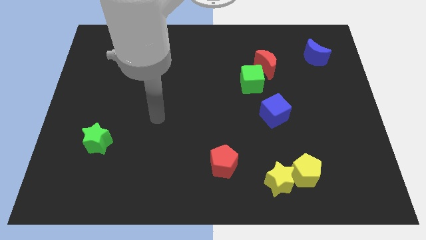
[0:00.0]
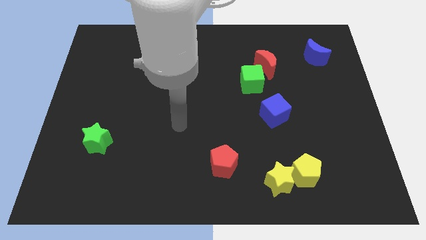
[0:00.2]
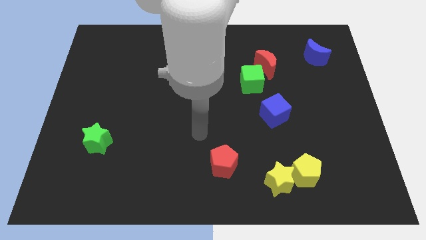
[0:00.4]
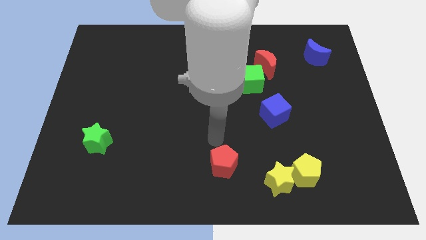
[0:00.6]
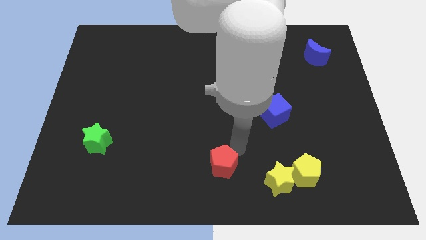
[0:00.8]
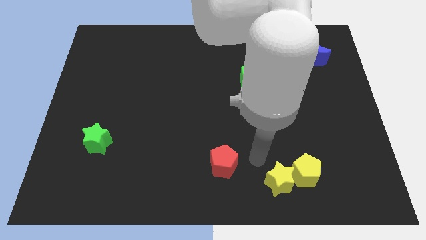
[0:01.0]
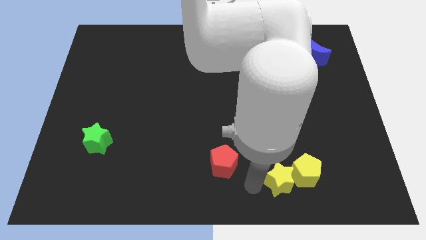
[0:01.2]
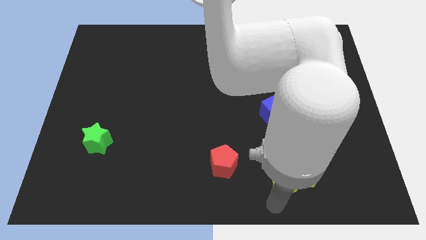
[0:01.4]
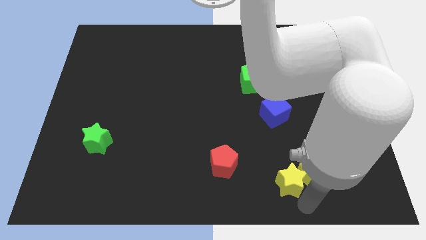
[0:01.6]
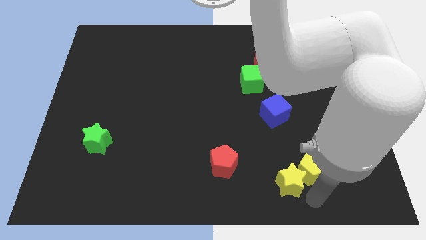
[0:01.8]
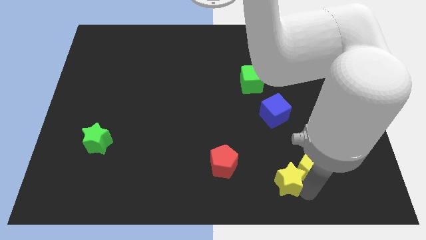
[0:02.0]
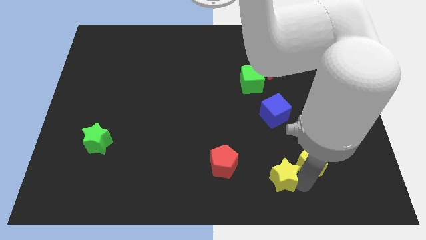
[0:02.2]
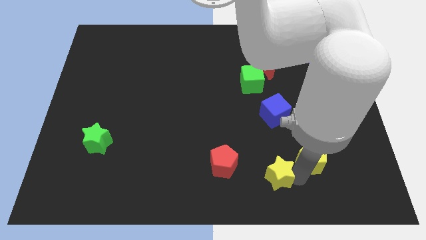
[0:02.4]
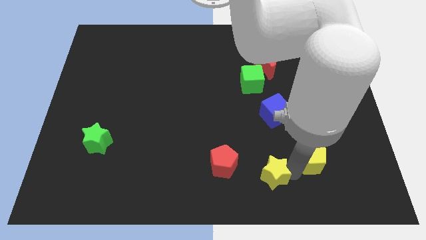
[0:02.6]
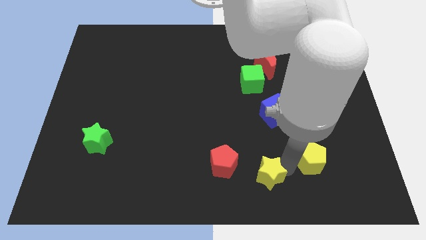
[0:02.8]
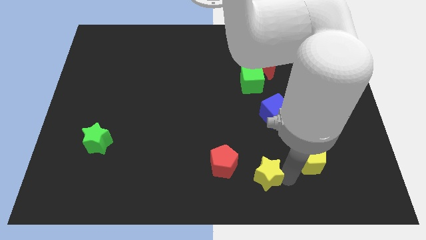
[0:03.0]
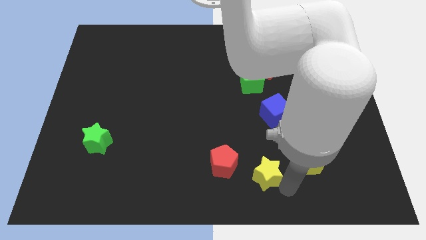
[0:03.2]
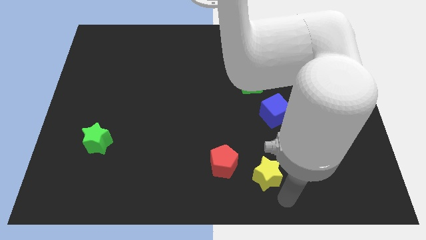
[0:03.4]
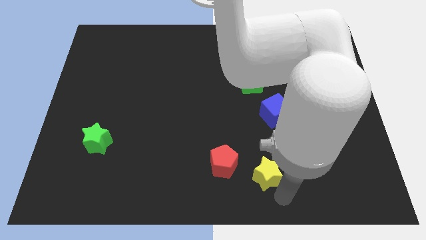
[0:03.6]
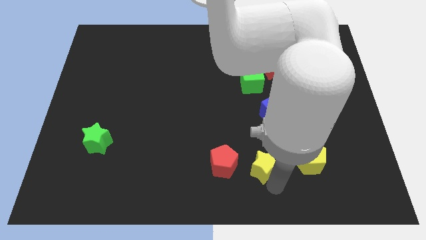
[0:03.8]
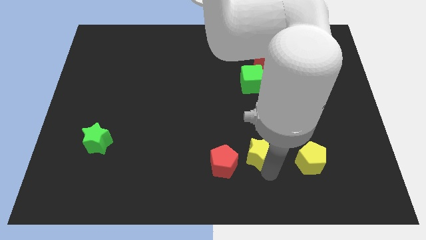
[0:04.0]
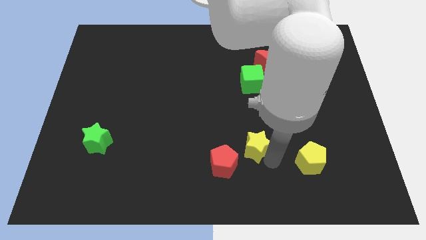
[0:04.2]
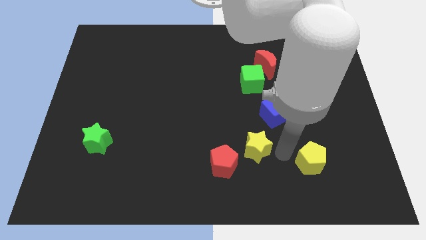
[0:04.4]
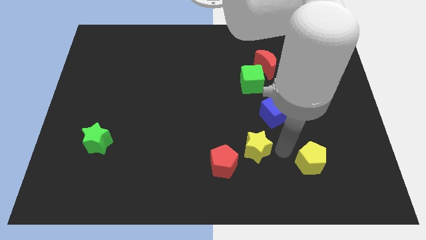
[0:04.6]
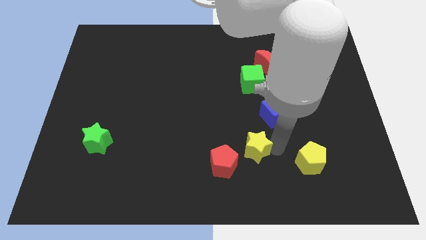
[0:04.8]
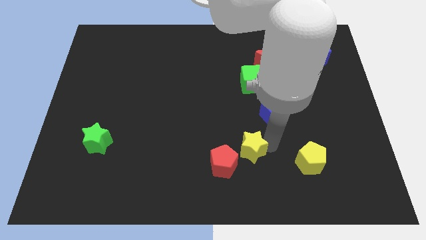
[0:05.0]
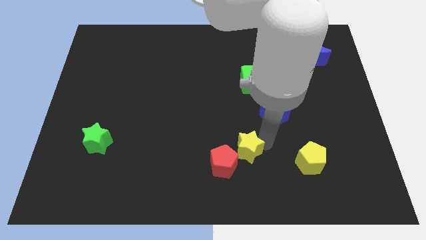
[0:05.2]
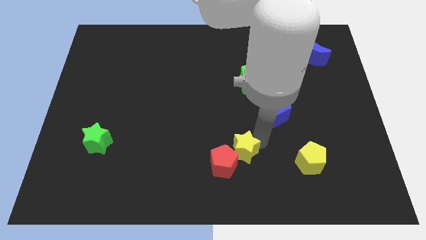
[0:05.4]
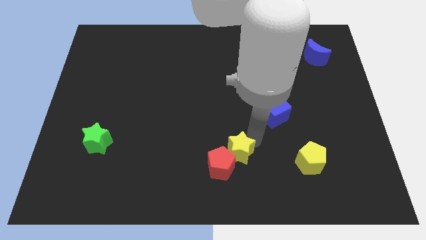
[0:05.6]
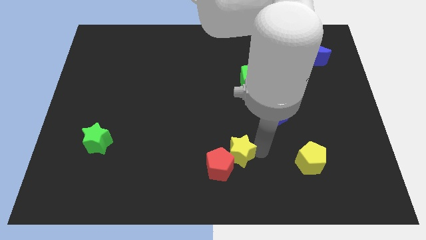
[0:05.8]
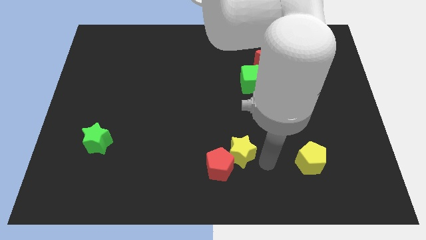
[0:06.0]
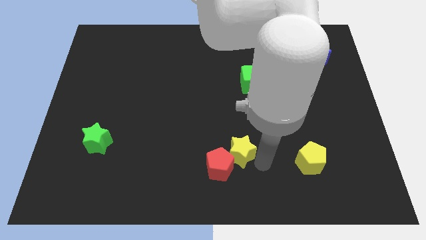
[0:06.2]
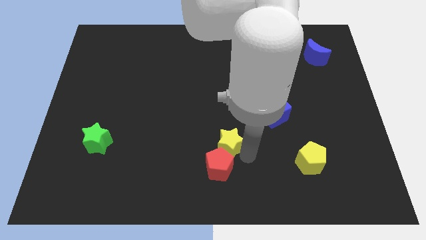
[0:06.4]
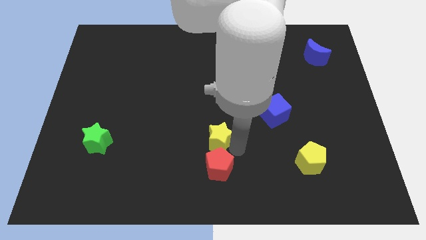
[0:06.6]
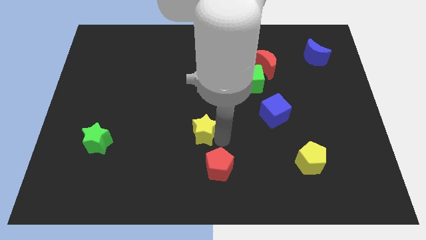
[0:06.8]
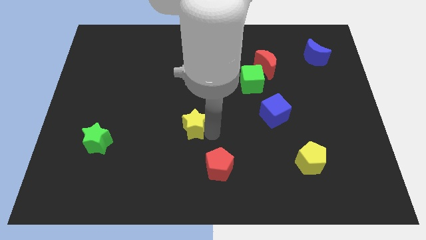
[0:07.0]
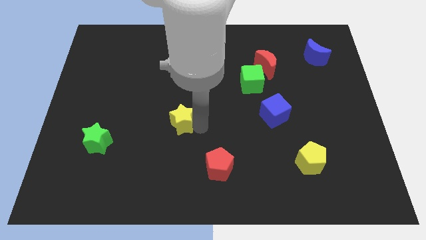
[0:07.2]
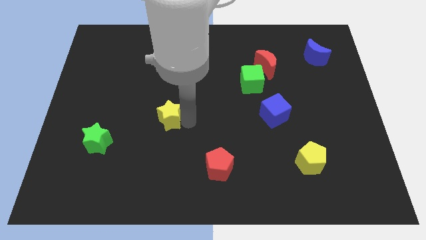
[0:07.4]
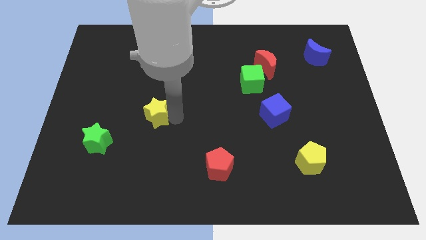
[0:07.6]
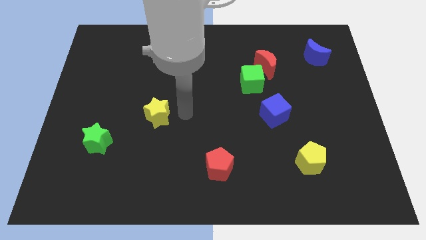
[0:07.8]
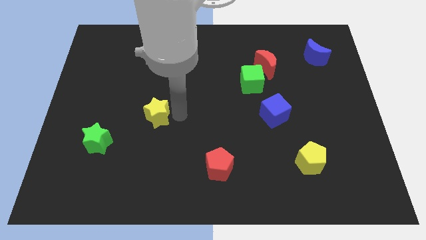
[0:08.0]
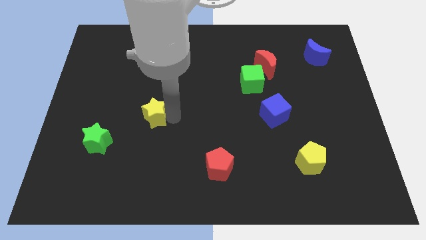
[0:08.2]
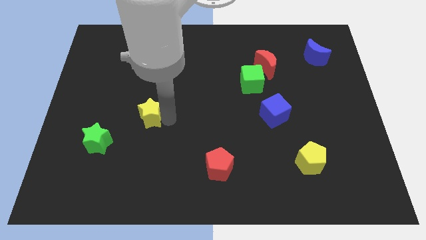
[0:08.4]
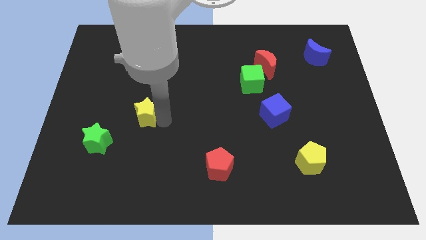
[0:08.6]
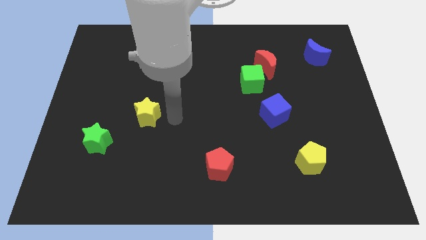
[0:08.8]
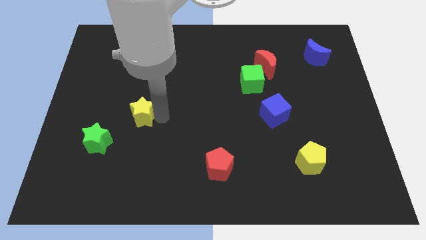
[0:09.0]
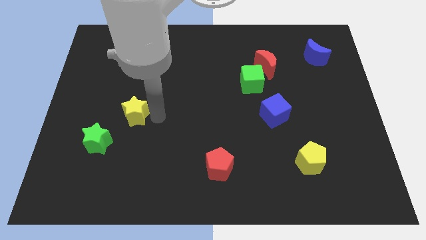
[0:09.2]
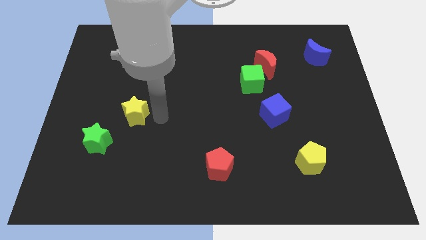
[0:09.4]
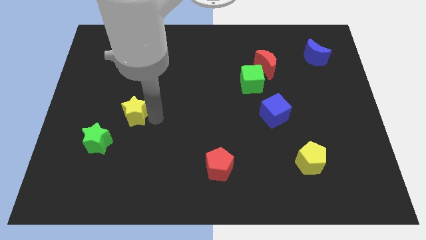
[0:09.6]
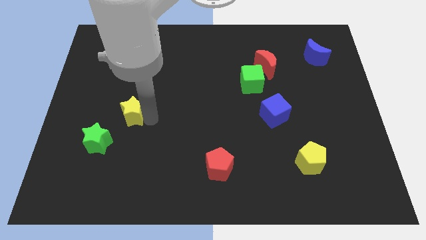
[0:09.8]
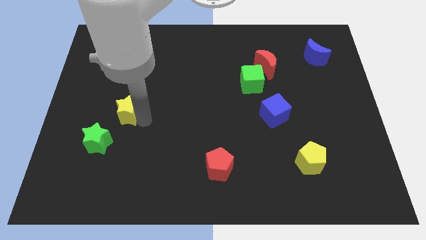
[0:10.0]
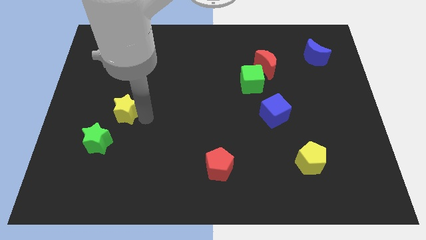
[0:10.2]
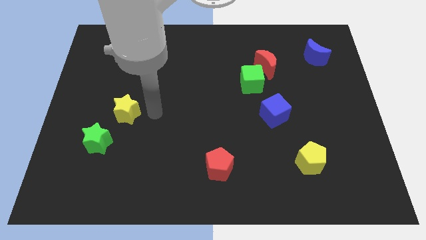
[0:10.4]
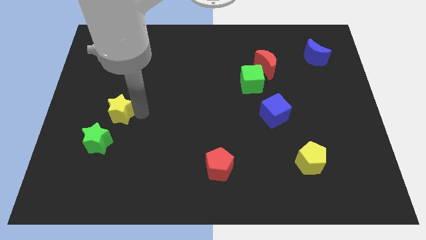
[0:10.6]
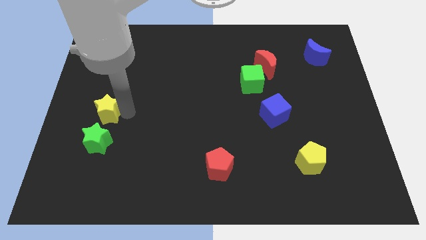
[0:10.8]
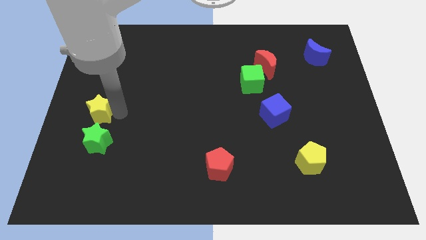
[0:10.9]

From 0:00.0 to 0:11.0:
slide the yellow star to the left side of the board

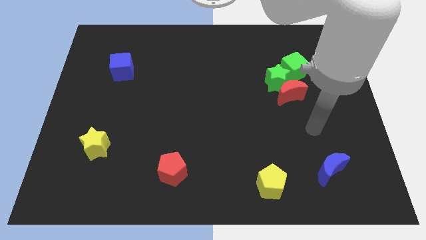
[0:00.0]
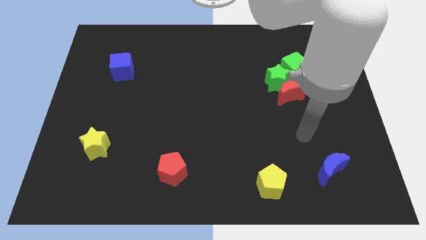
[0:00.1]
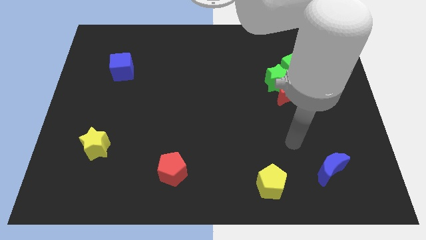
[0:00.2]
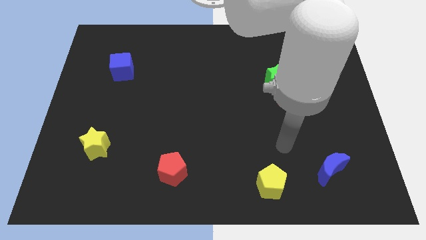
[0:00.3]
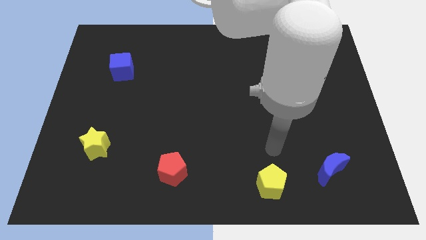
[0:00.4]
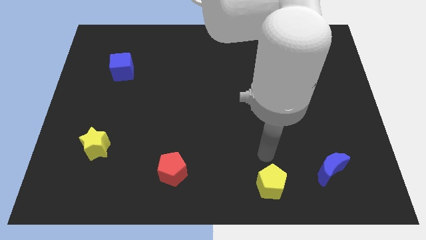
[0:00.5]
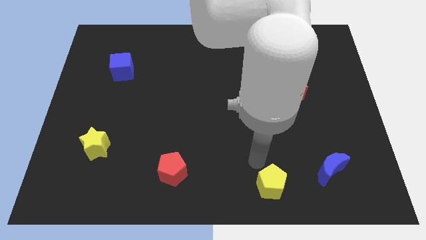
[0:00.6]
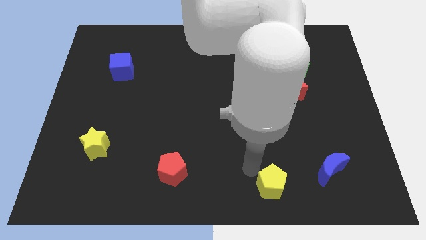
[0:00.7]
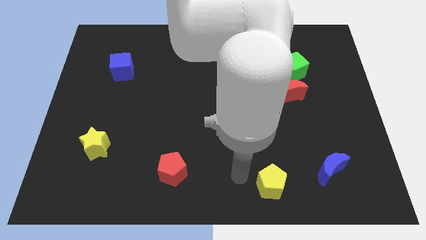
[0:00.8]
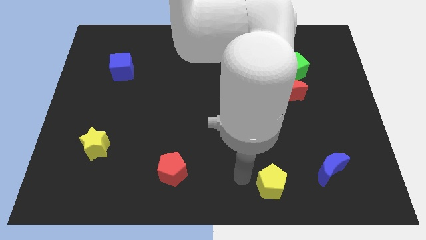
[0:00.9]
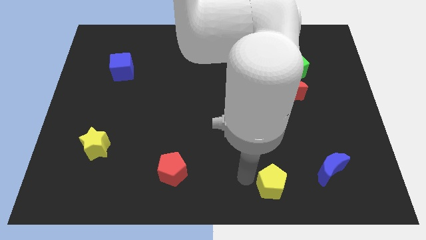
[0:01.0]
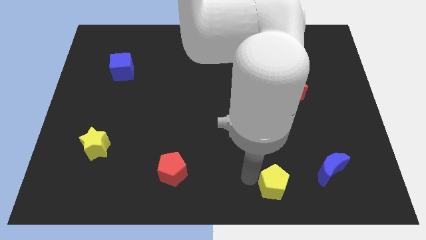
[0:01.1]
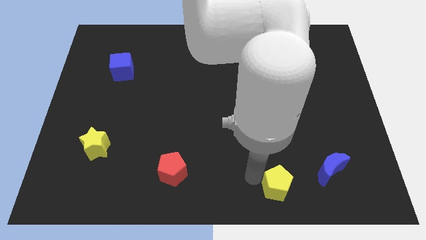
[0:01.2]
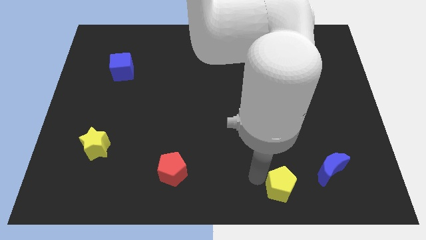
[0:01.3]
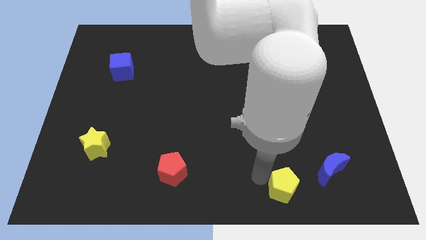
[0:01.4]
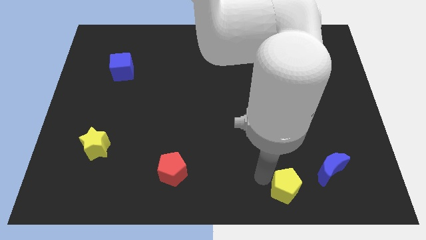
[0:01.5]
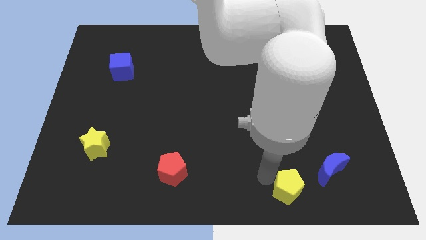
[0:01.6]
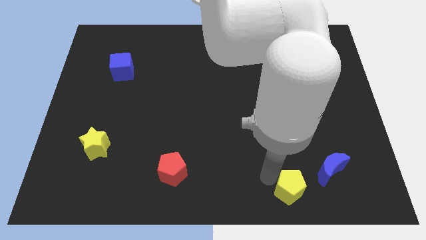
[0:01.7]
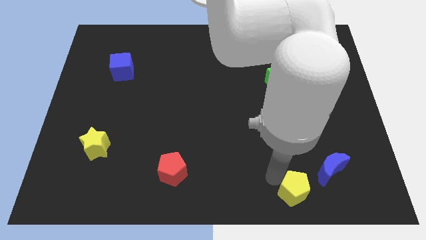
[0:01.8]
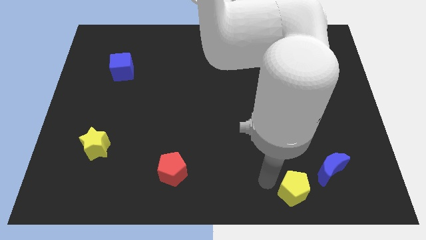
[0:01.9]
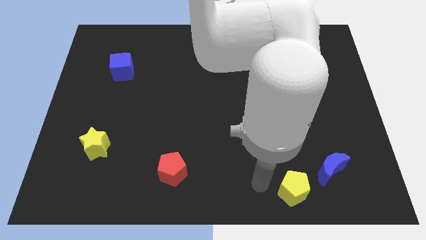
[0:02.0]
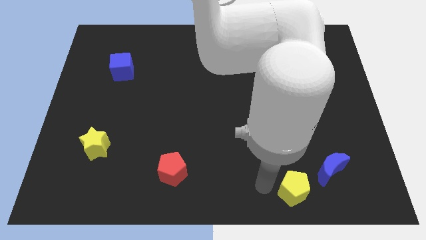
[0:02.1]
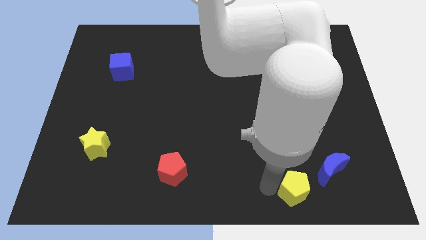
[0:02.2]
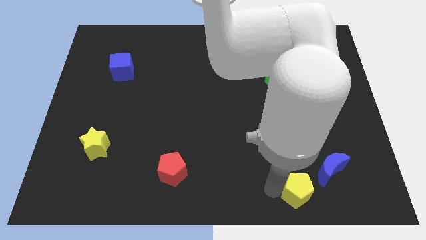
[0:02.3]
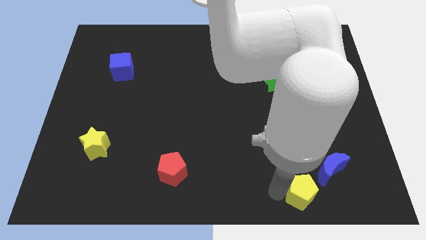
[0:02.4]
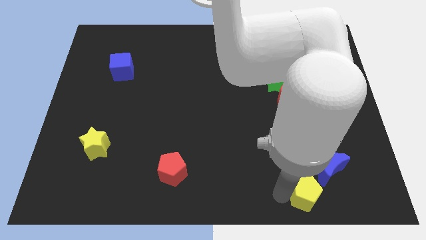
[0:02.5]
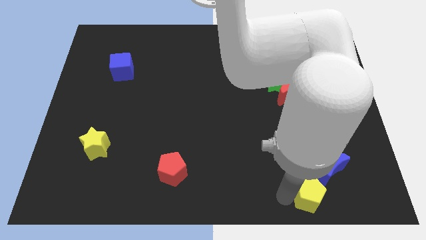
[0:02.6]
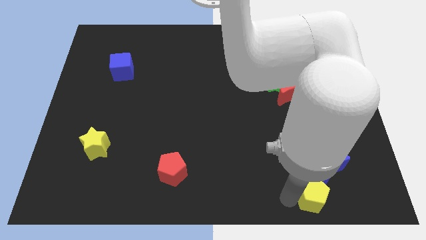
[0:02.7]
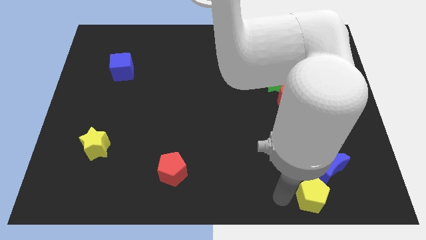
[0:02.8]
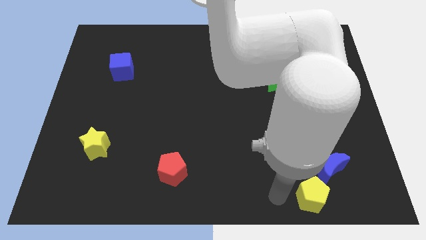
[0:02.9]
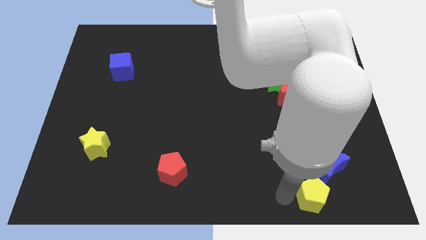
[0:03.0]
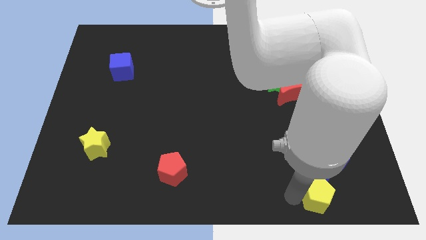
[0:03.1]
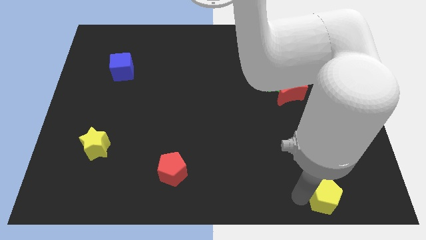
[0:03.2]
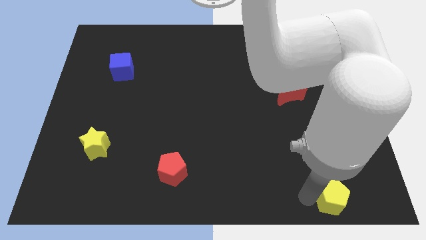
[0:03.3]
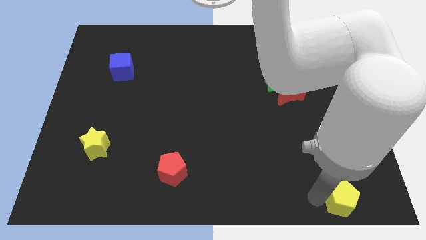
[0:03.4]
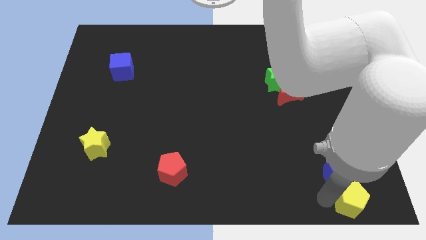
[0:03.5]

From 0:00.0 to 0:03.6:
put the yellow pentagon to the bottom right
